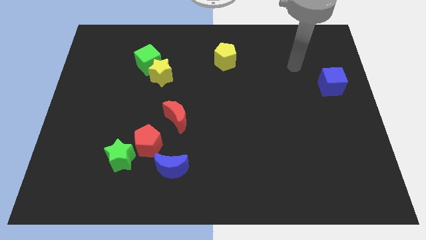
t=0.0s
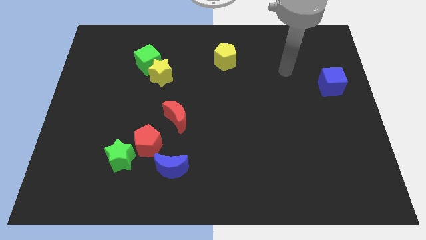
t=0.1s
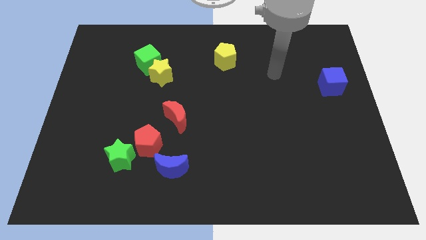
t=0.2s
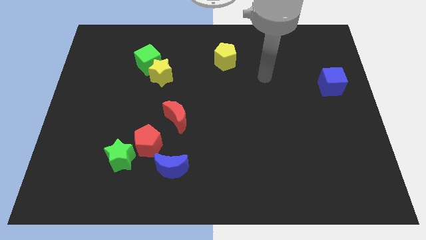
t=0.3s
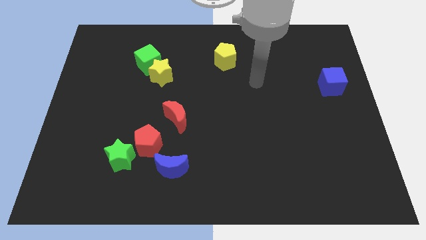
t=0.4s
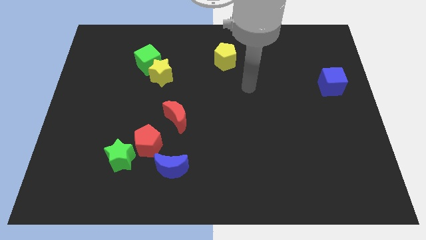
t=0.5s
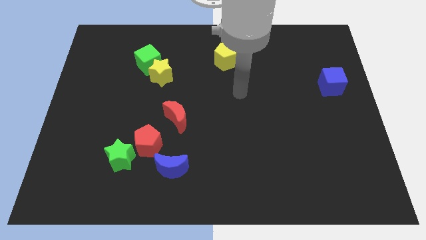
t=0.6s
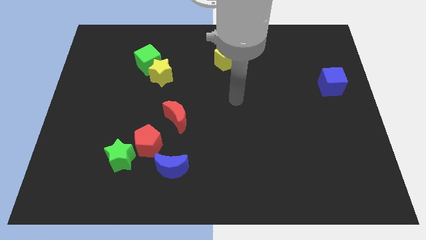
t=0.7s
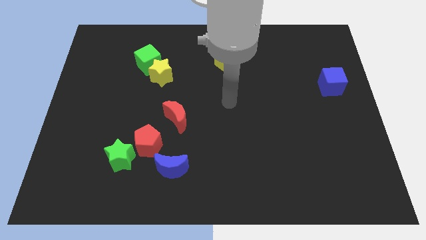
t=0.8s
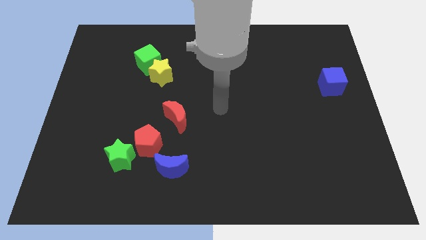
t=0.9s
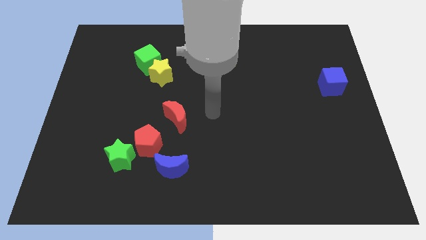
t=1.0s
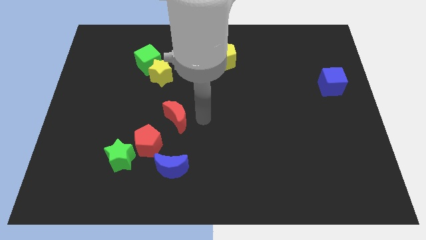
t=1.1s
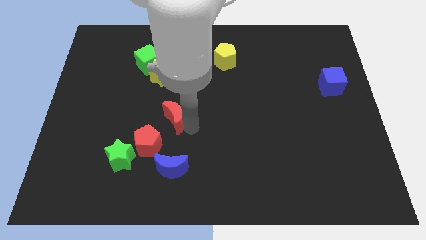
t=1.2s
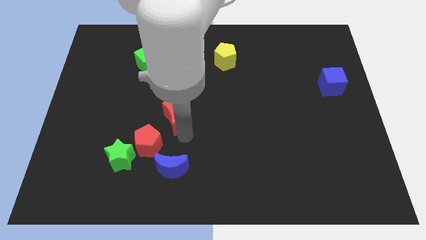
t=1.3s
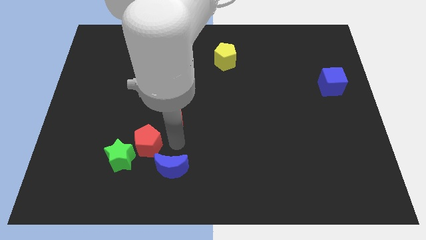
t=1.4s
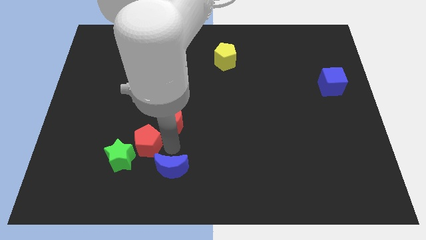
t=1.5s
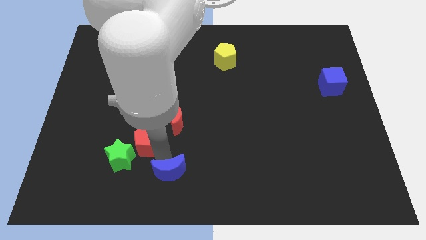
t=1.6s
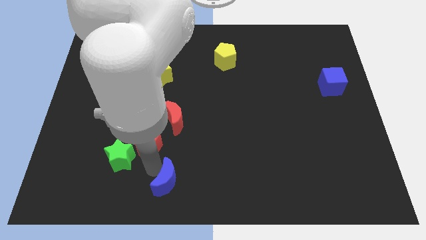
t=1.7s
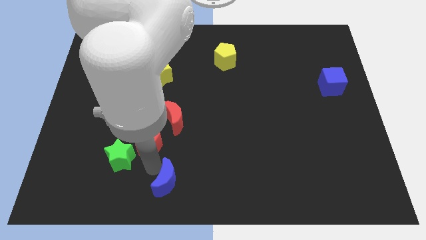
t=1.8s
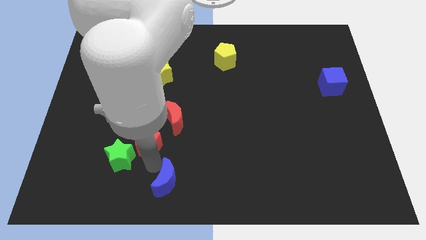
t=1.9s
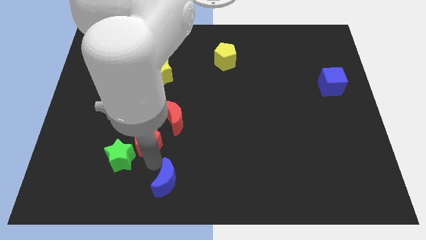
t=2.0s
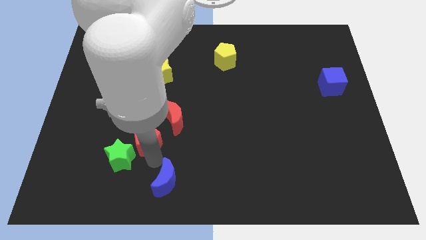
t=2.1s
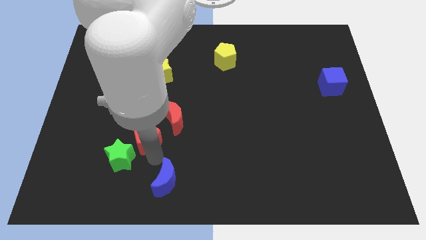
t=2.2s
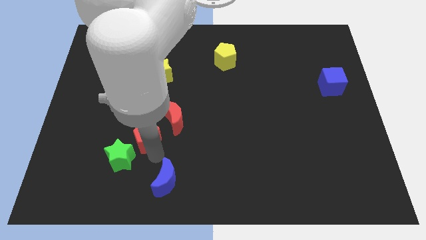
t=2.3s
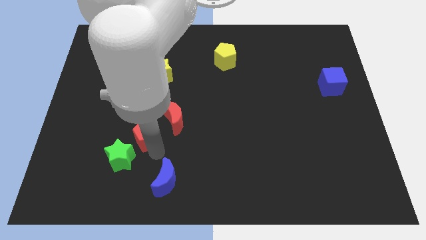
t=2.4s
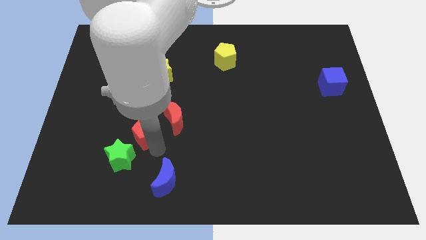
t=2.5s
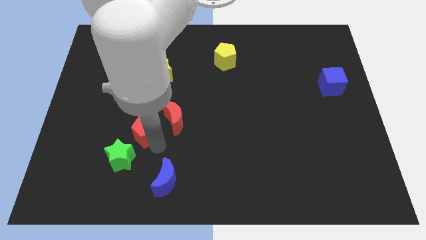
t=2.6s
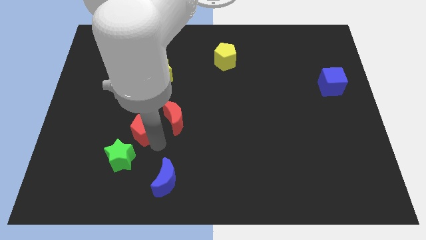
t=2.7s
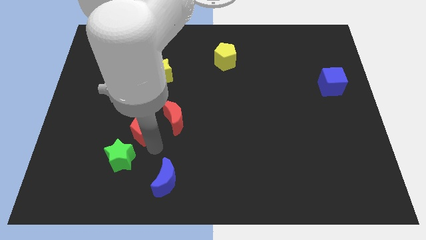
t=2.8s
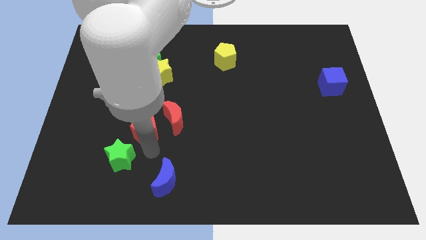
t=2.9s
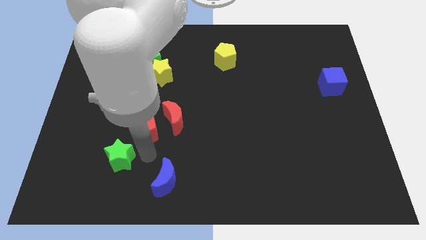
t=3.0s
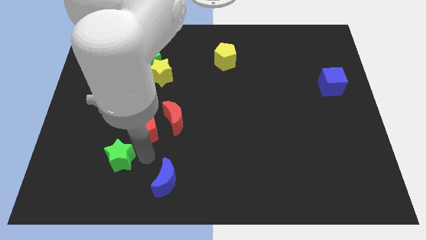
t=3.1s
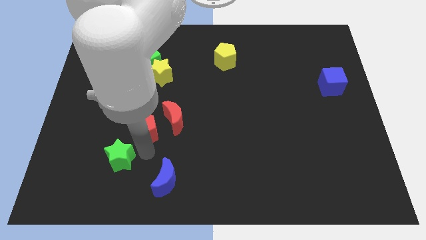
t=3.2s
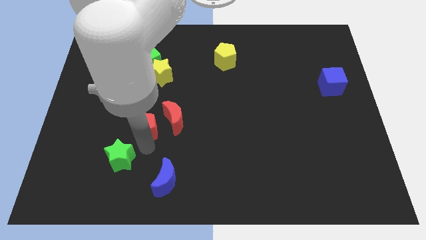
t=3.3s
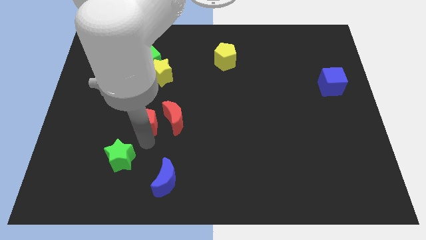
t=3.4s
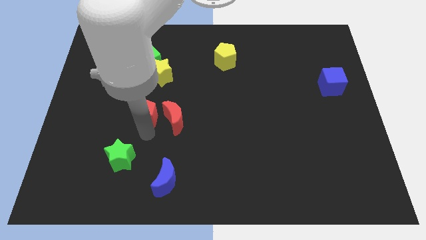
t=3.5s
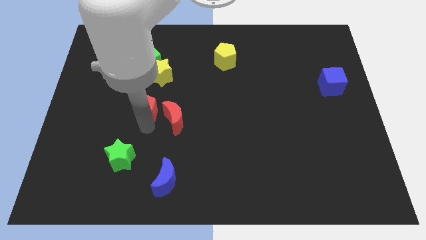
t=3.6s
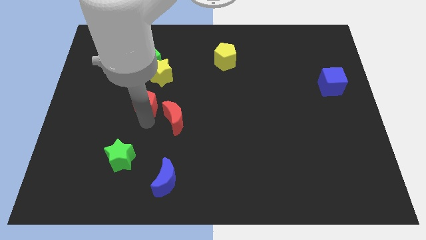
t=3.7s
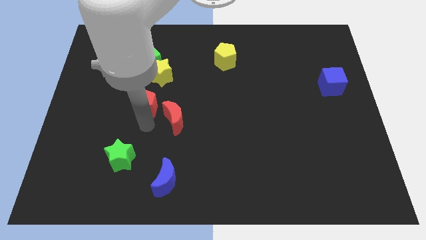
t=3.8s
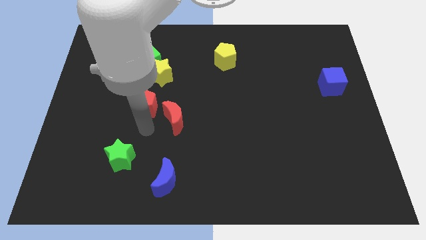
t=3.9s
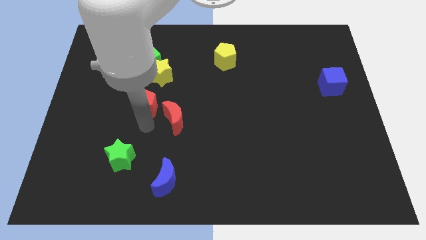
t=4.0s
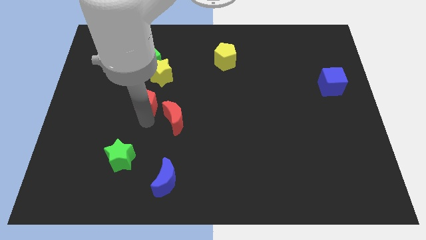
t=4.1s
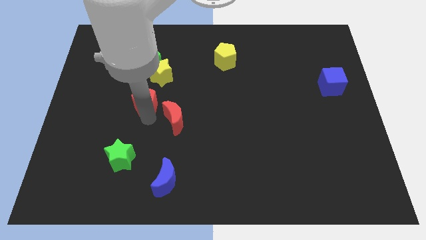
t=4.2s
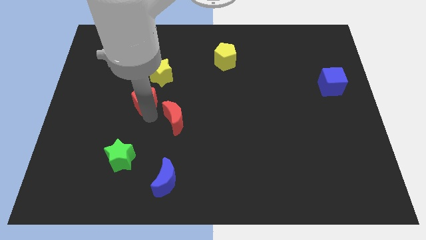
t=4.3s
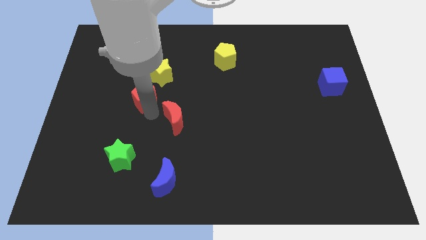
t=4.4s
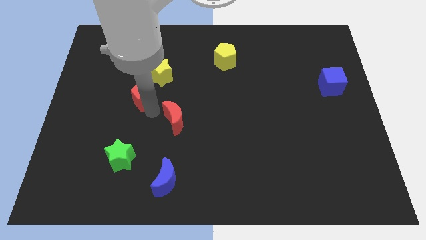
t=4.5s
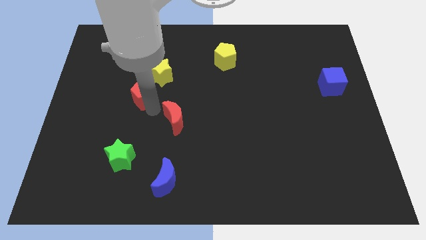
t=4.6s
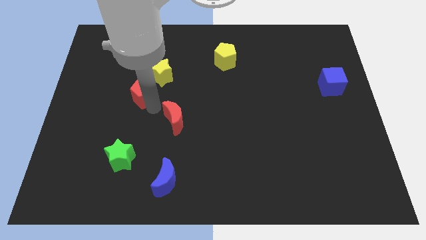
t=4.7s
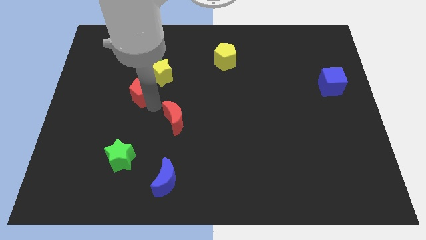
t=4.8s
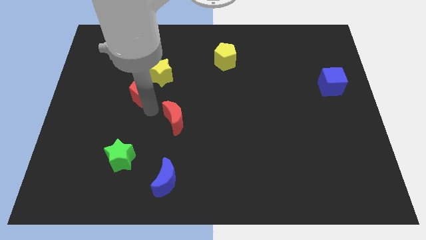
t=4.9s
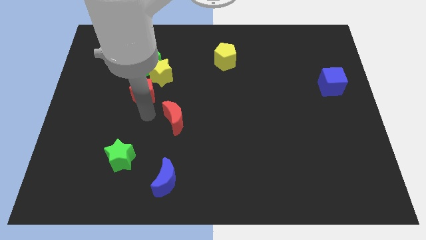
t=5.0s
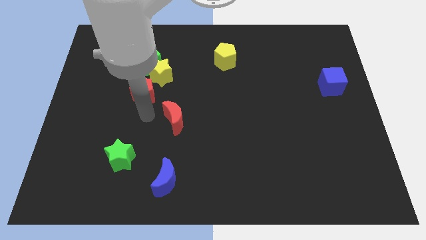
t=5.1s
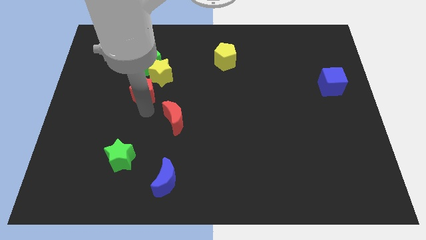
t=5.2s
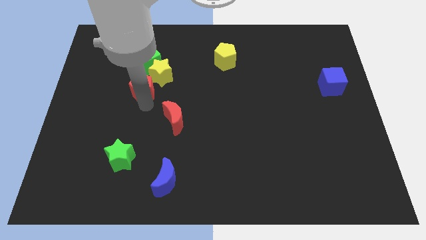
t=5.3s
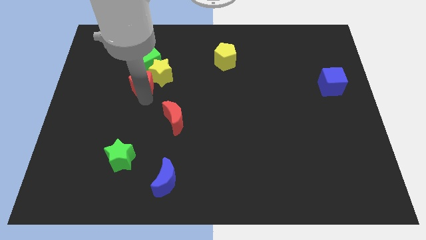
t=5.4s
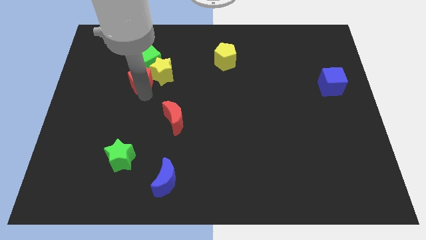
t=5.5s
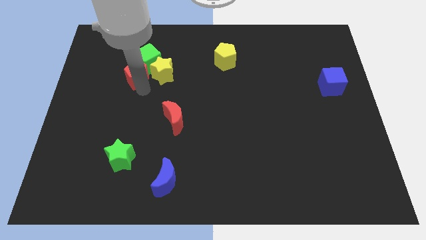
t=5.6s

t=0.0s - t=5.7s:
move the red pentagon to the green cube

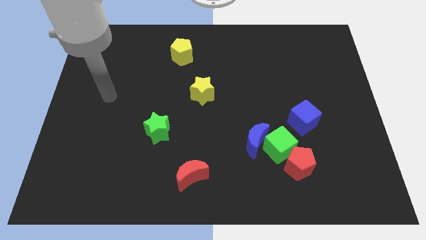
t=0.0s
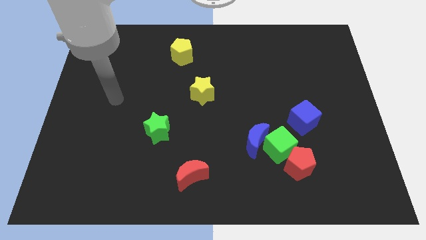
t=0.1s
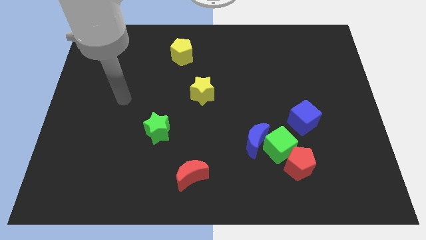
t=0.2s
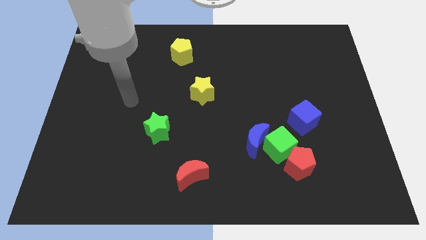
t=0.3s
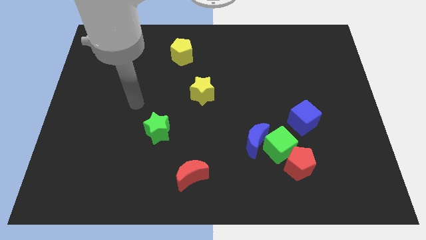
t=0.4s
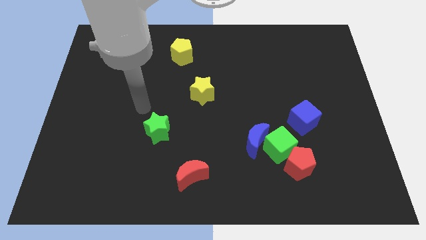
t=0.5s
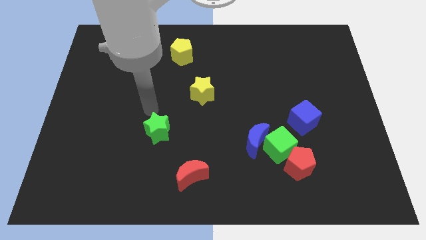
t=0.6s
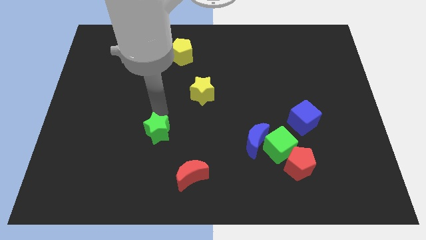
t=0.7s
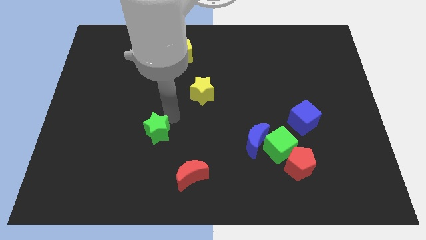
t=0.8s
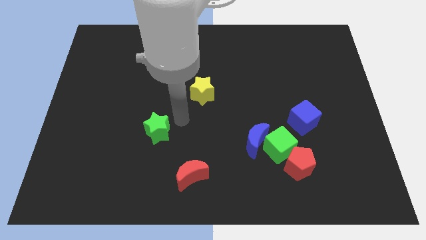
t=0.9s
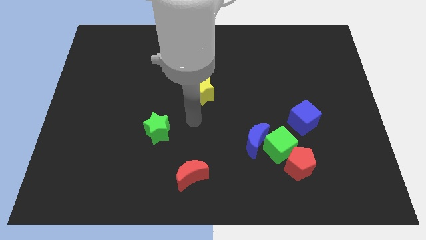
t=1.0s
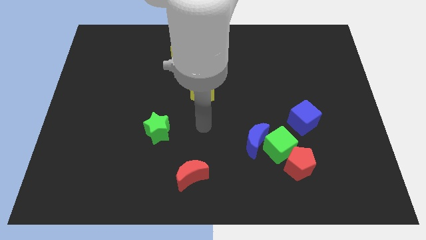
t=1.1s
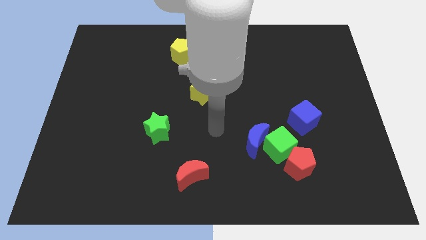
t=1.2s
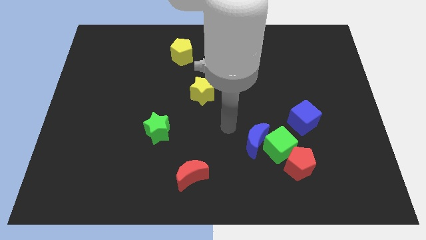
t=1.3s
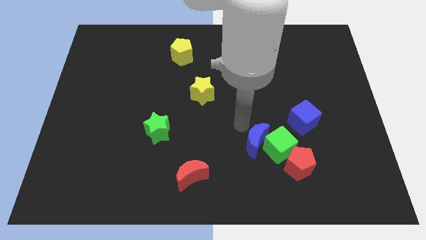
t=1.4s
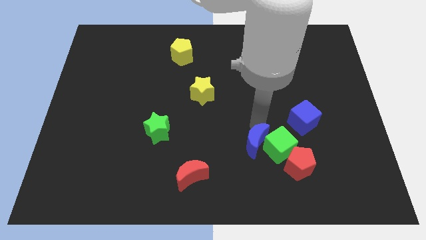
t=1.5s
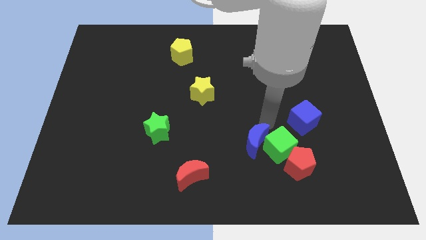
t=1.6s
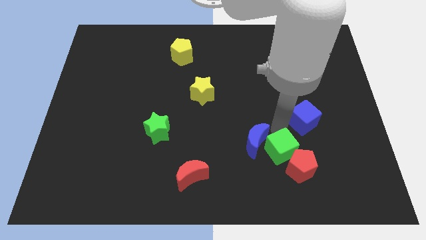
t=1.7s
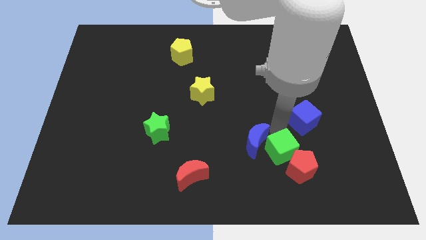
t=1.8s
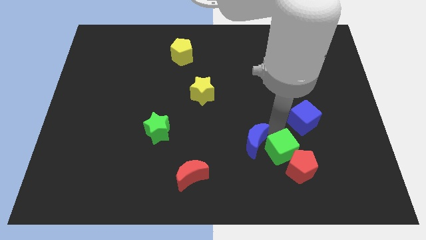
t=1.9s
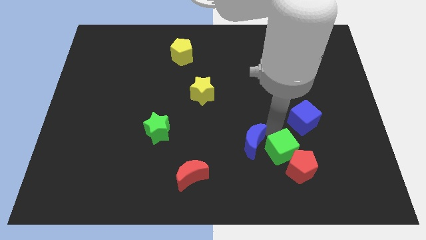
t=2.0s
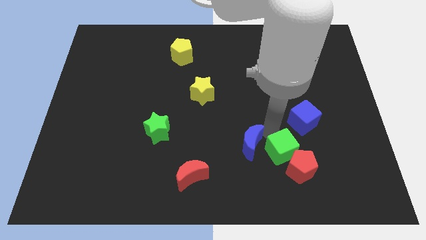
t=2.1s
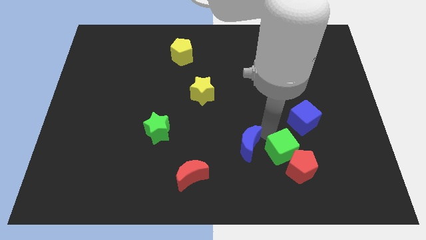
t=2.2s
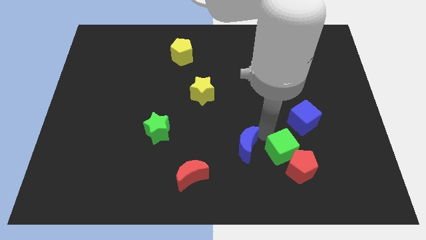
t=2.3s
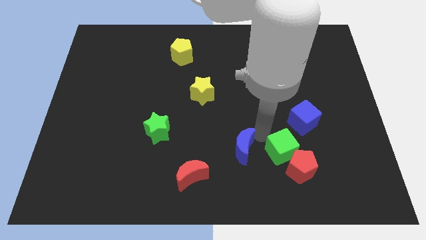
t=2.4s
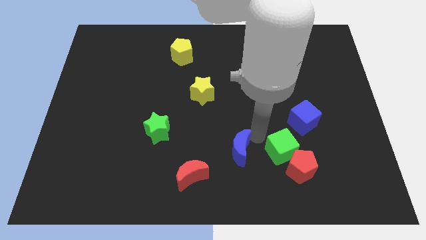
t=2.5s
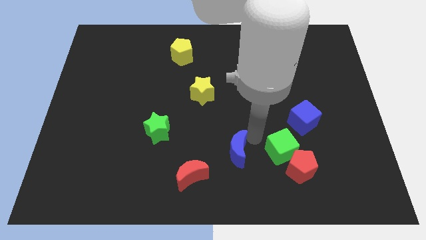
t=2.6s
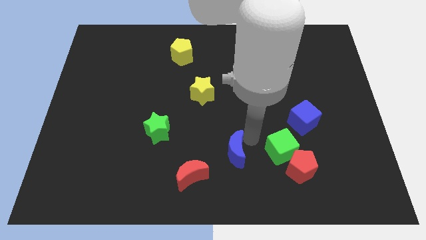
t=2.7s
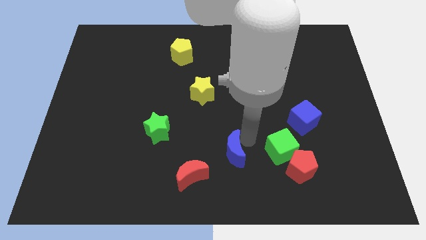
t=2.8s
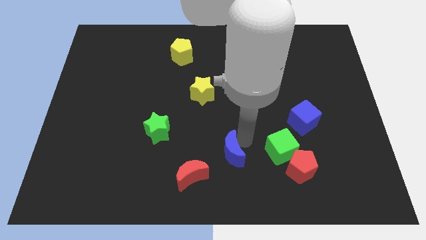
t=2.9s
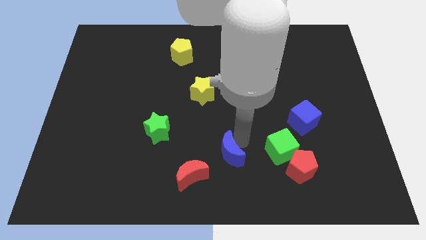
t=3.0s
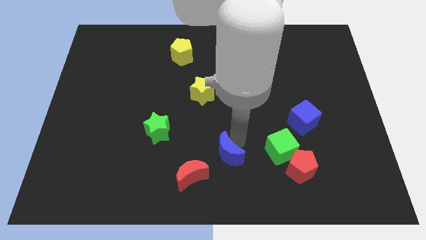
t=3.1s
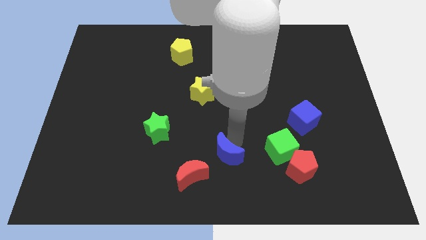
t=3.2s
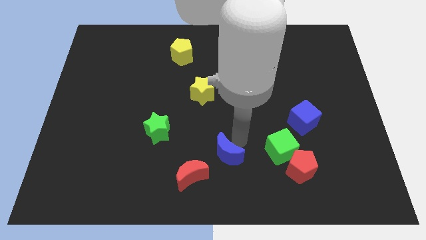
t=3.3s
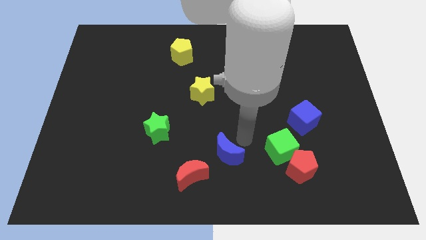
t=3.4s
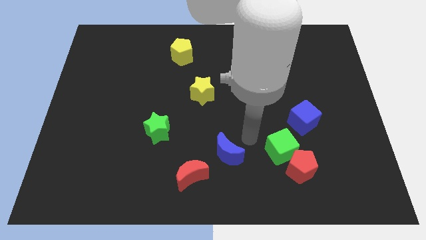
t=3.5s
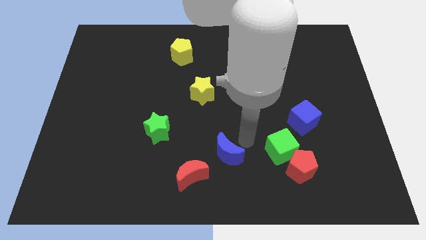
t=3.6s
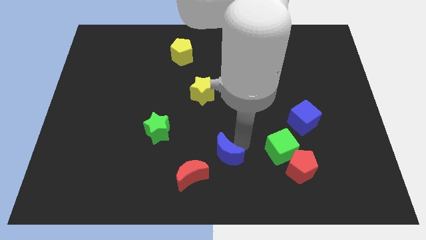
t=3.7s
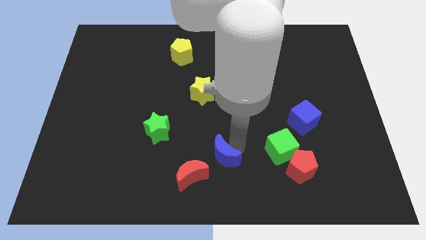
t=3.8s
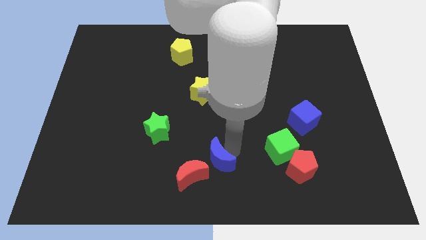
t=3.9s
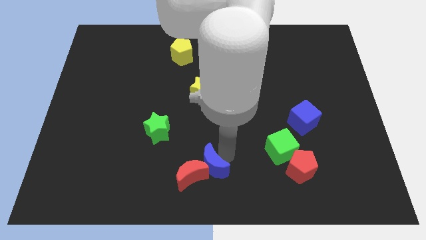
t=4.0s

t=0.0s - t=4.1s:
push the blue moon next to the red moon
